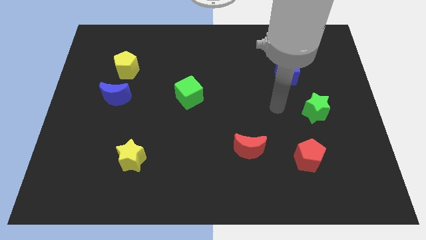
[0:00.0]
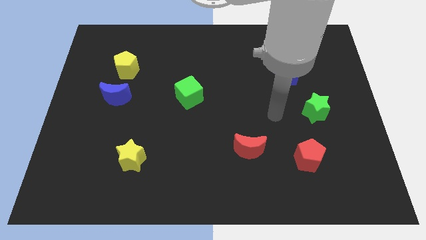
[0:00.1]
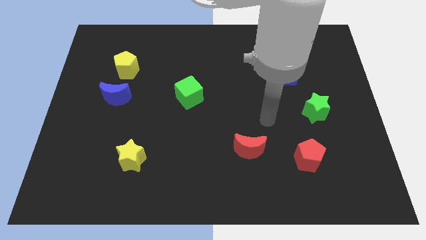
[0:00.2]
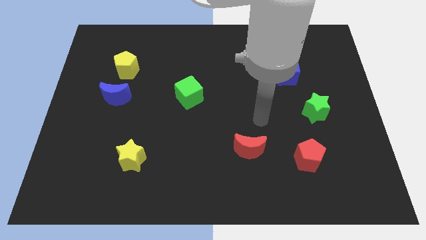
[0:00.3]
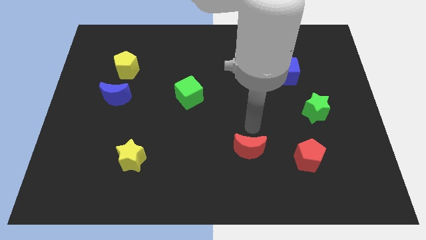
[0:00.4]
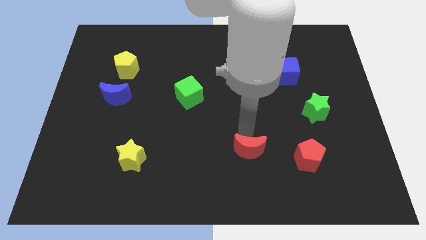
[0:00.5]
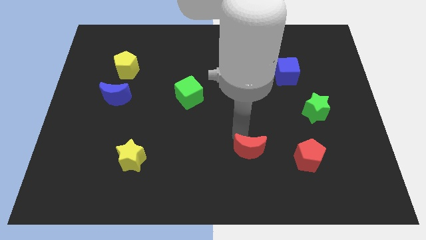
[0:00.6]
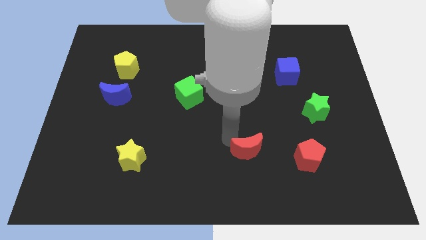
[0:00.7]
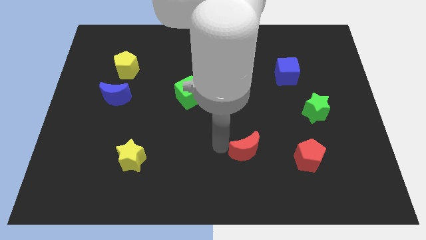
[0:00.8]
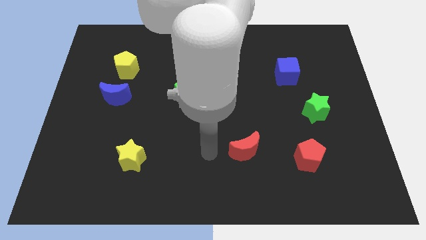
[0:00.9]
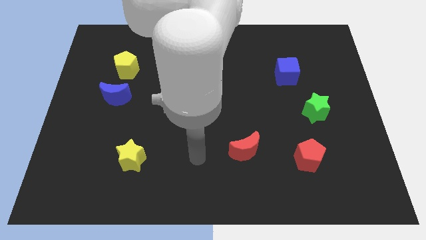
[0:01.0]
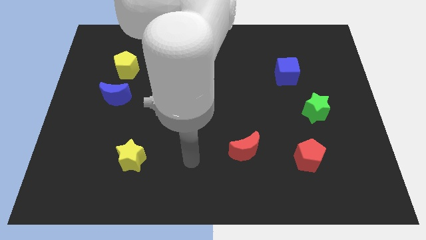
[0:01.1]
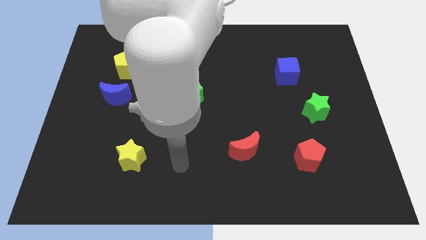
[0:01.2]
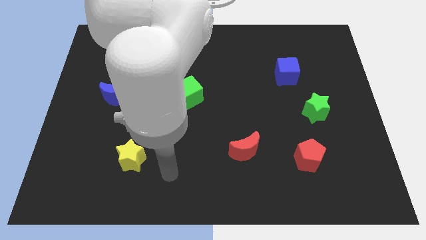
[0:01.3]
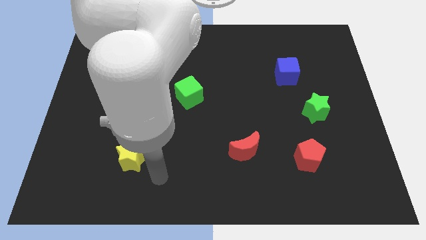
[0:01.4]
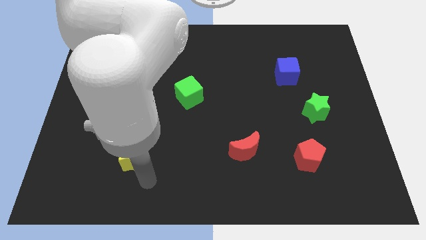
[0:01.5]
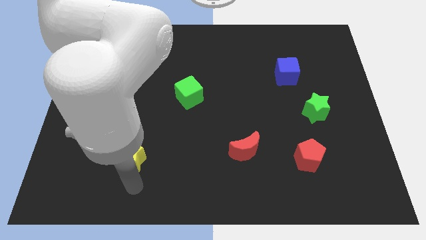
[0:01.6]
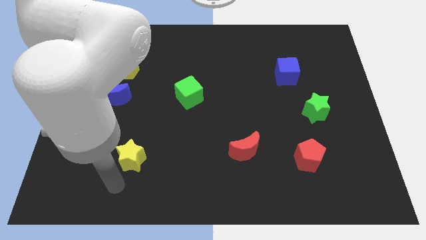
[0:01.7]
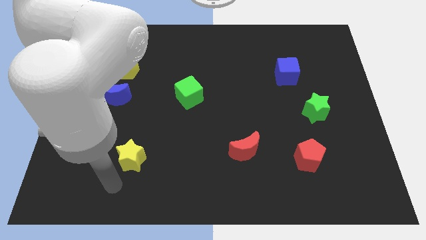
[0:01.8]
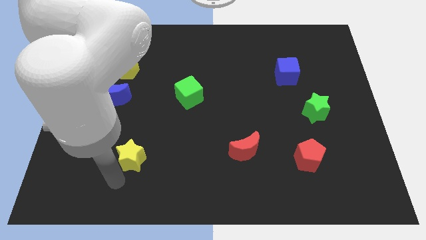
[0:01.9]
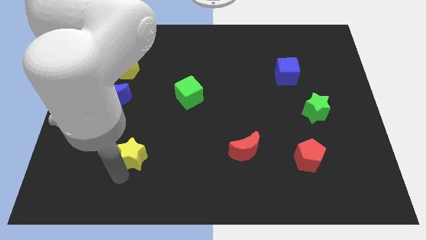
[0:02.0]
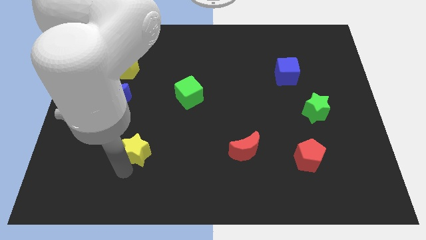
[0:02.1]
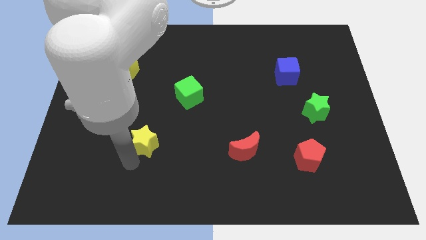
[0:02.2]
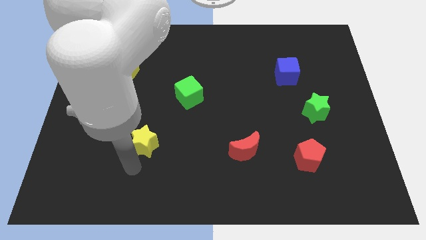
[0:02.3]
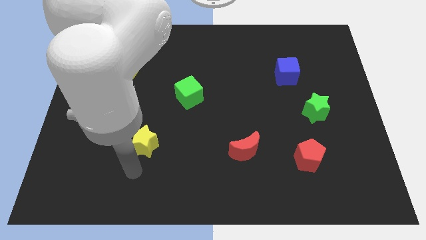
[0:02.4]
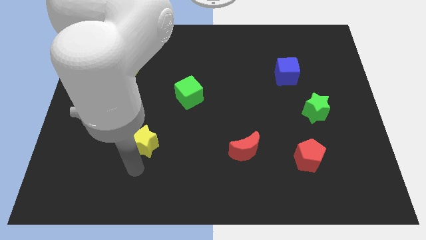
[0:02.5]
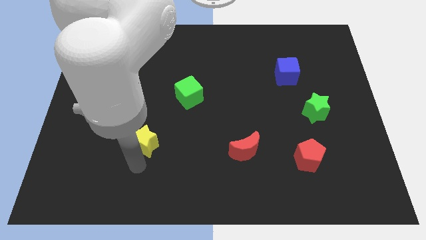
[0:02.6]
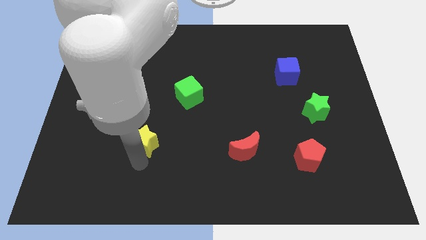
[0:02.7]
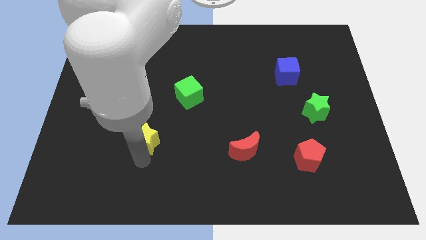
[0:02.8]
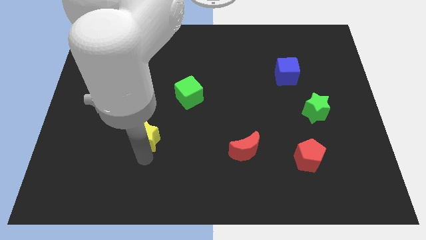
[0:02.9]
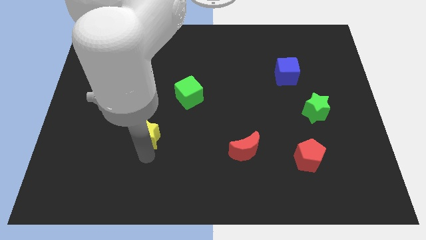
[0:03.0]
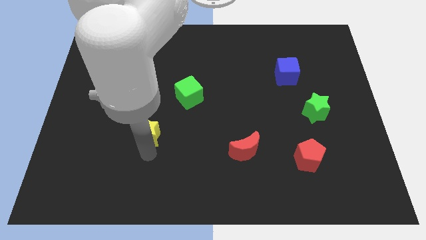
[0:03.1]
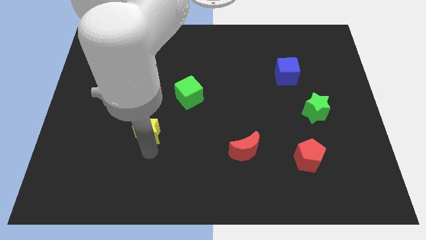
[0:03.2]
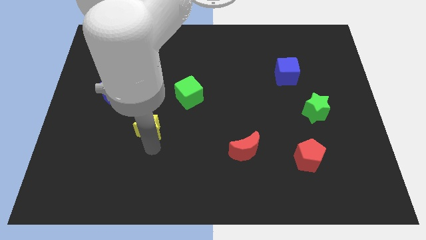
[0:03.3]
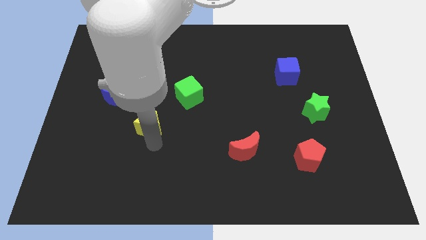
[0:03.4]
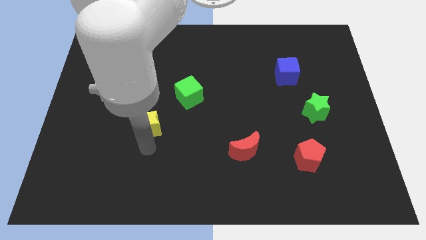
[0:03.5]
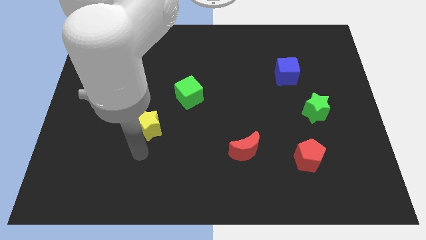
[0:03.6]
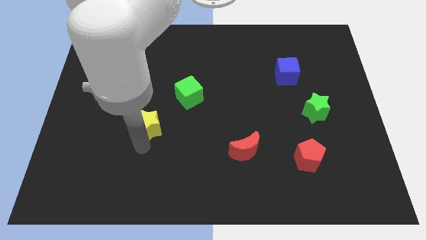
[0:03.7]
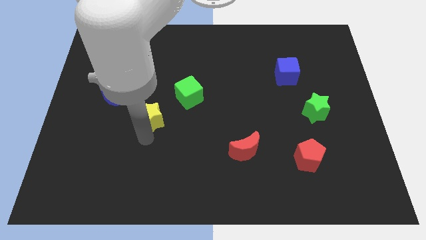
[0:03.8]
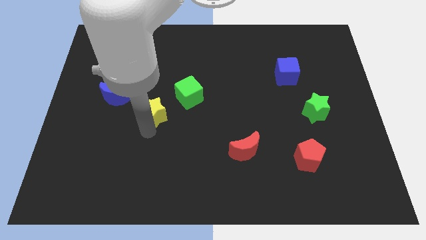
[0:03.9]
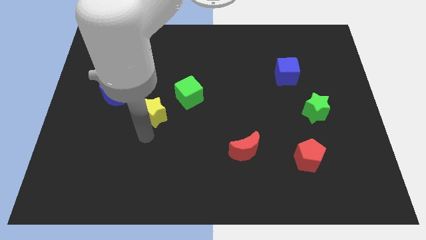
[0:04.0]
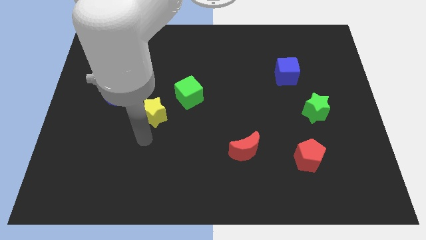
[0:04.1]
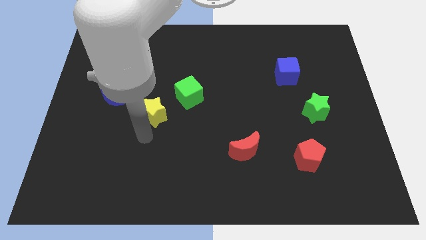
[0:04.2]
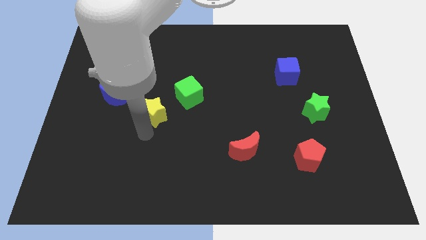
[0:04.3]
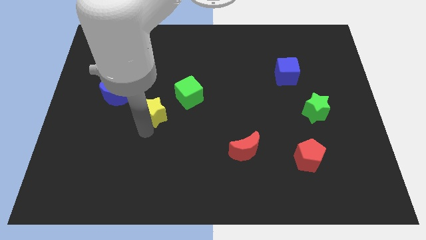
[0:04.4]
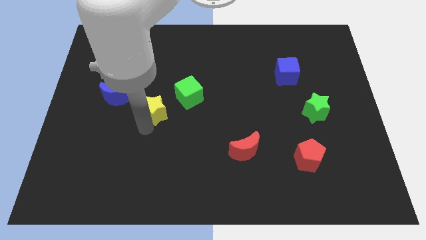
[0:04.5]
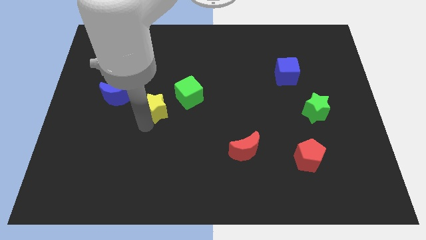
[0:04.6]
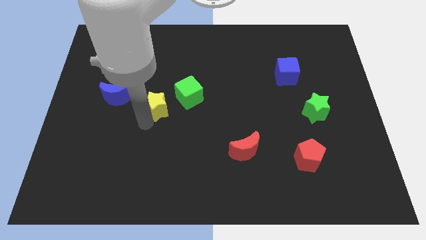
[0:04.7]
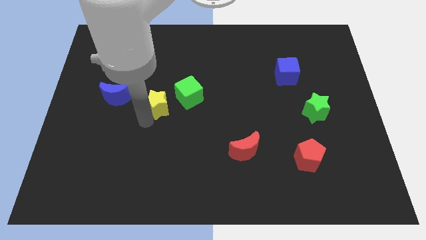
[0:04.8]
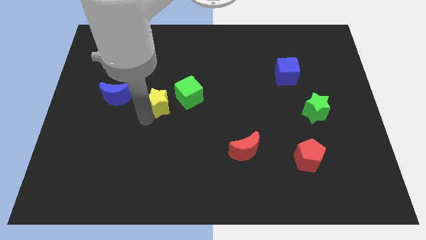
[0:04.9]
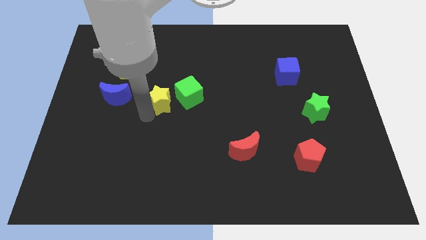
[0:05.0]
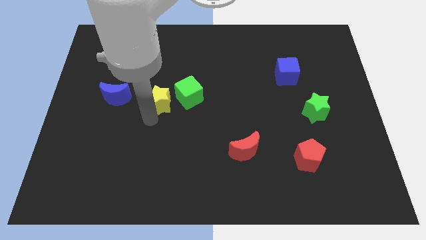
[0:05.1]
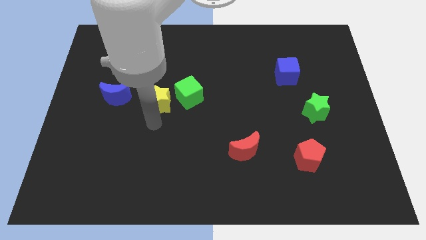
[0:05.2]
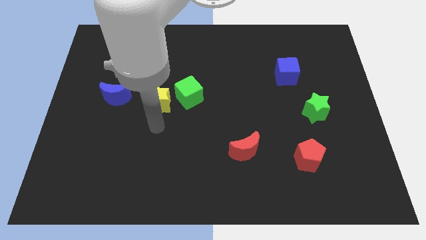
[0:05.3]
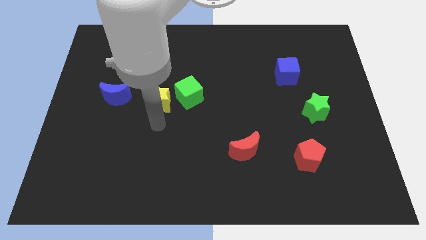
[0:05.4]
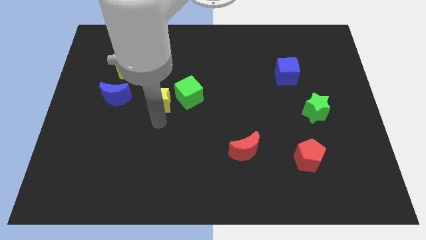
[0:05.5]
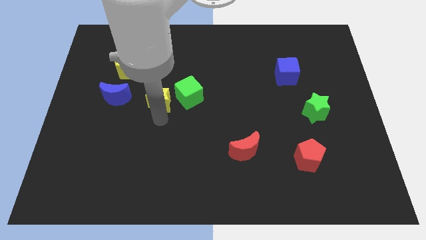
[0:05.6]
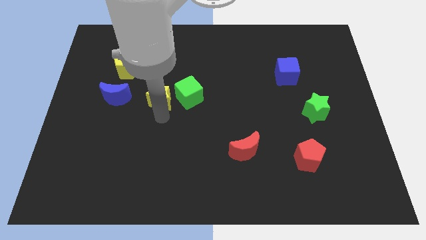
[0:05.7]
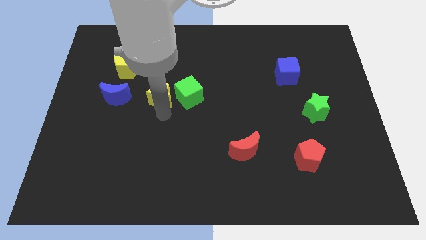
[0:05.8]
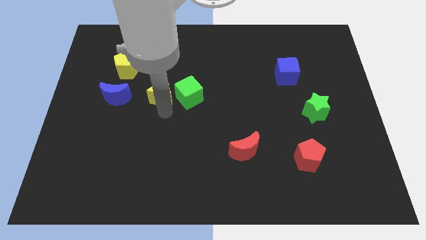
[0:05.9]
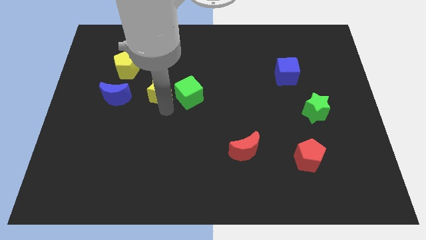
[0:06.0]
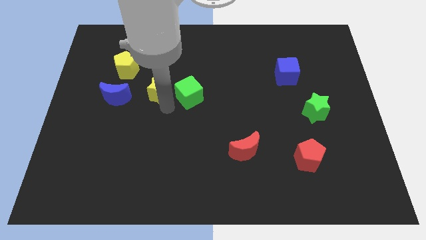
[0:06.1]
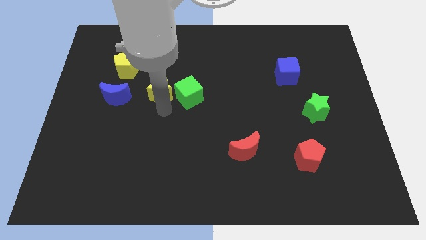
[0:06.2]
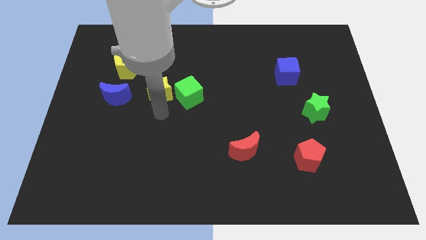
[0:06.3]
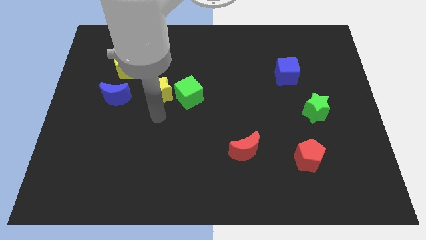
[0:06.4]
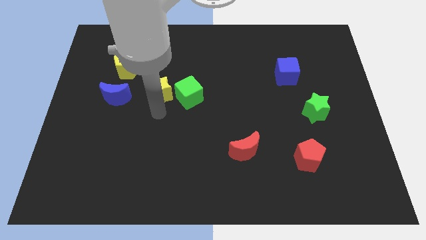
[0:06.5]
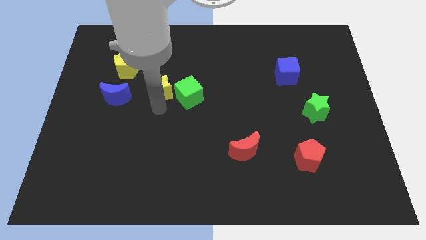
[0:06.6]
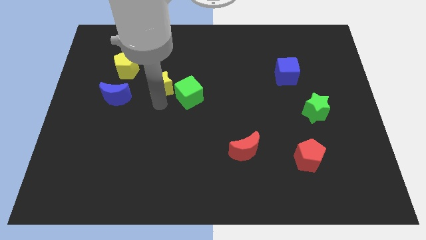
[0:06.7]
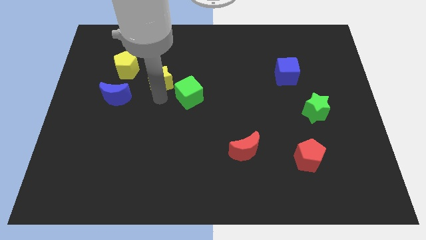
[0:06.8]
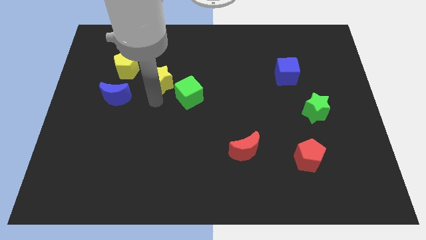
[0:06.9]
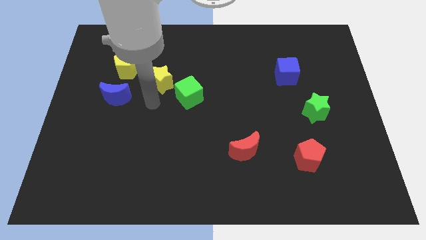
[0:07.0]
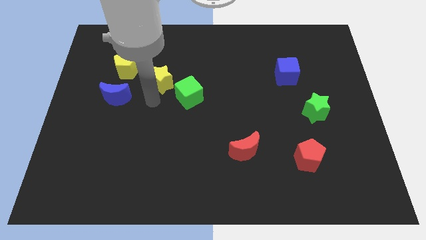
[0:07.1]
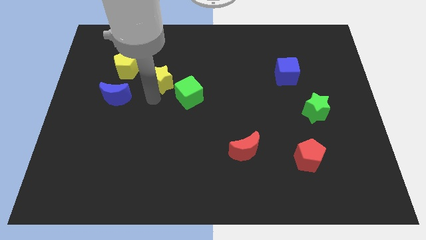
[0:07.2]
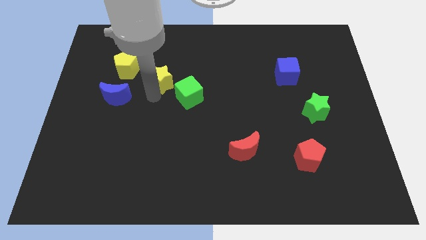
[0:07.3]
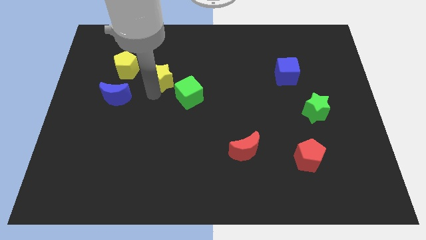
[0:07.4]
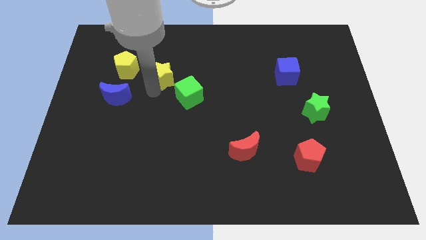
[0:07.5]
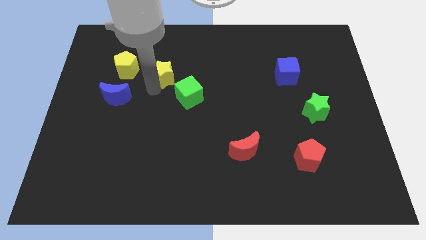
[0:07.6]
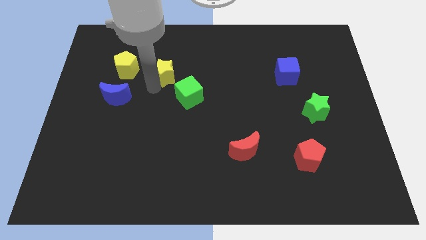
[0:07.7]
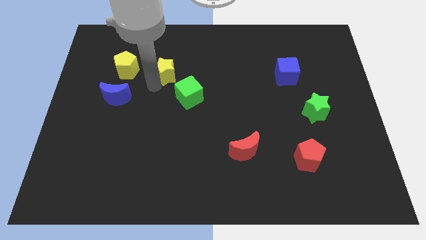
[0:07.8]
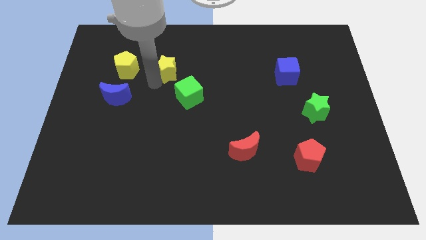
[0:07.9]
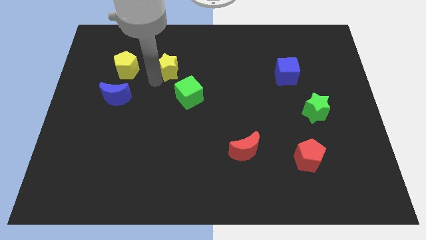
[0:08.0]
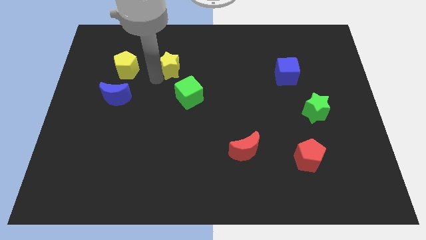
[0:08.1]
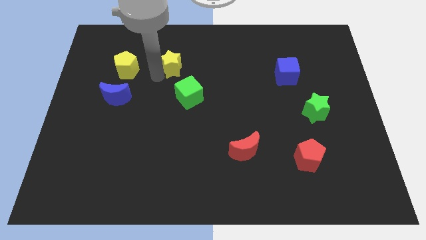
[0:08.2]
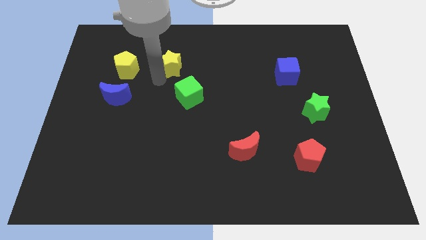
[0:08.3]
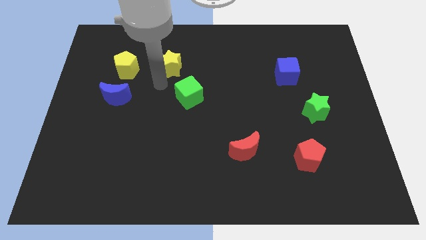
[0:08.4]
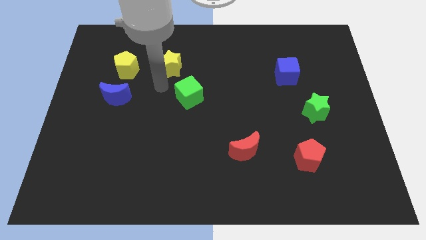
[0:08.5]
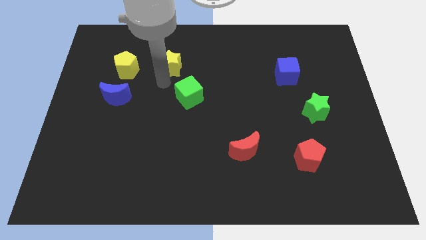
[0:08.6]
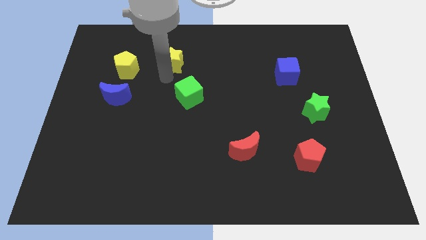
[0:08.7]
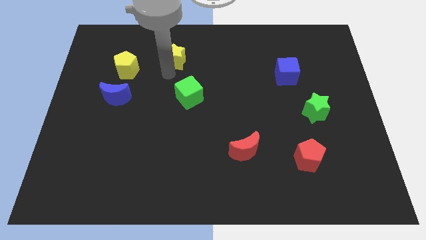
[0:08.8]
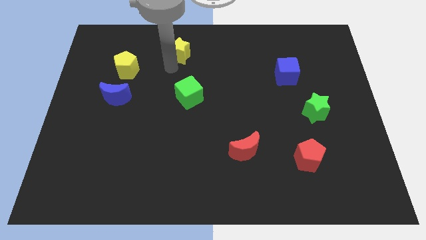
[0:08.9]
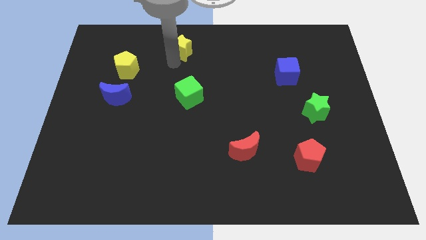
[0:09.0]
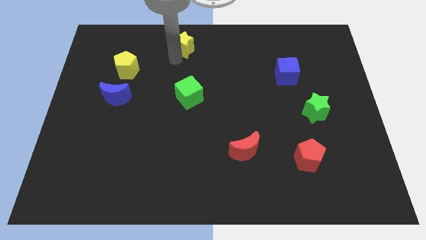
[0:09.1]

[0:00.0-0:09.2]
put the yellow star to the top side
